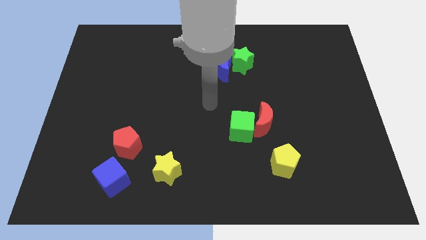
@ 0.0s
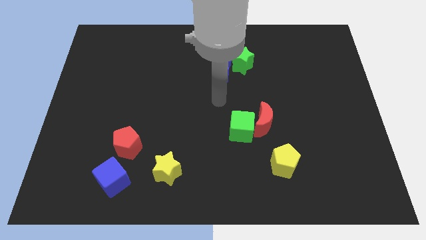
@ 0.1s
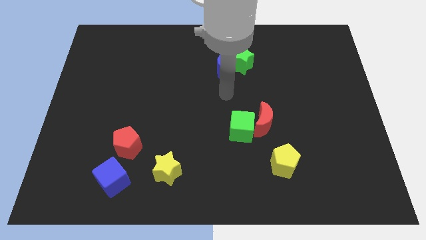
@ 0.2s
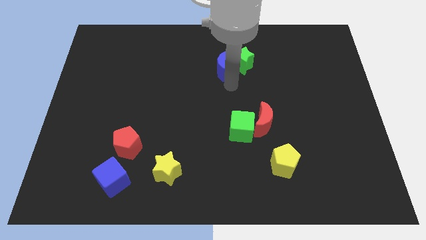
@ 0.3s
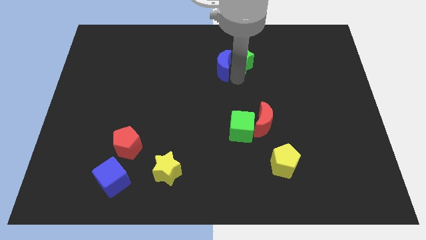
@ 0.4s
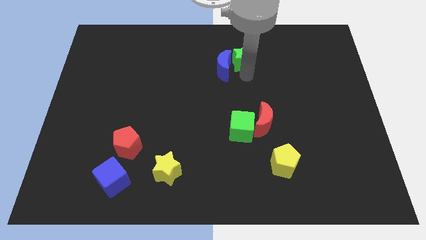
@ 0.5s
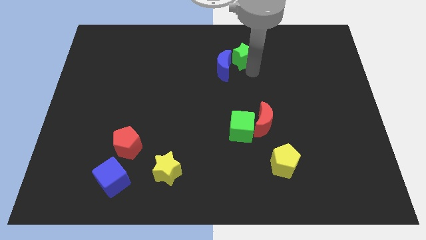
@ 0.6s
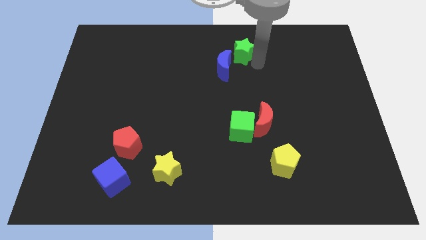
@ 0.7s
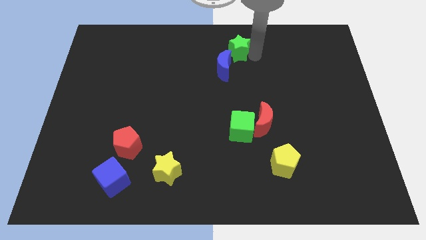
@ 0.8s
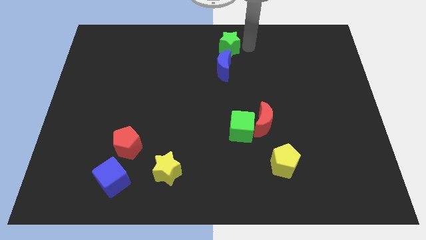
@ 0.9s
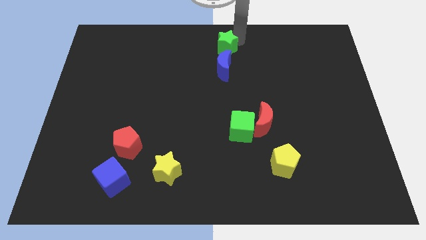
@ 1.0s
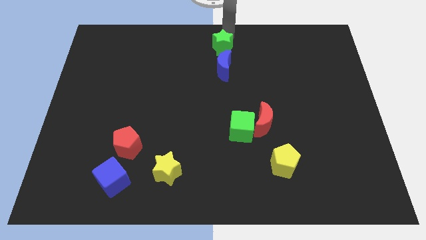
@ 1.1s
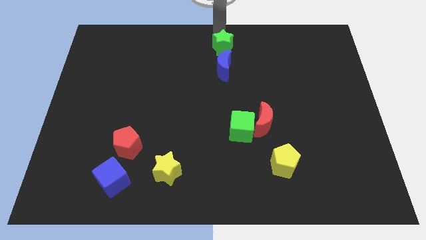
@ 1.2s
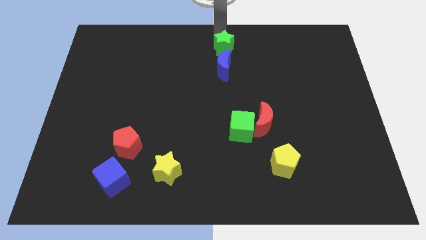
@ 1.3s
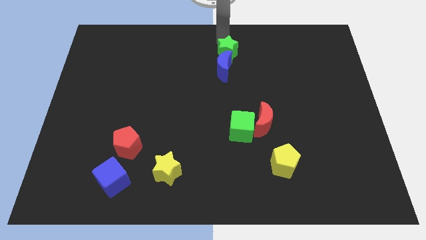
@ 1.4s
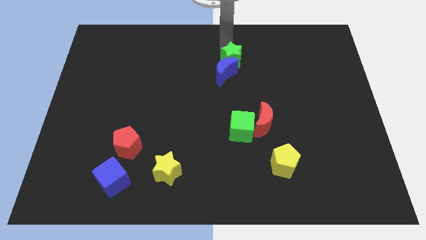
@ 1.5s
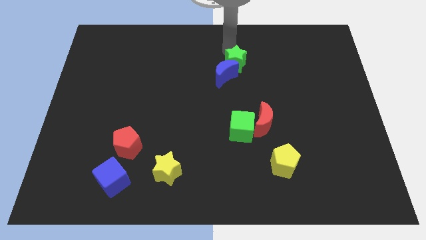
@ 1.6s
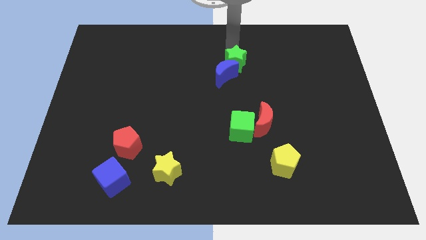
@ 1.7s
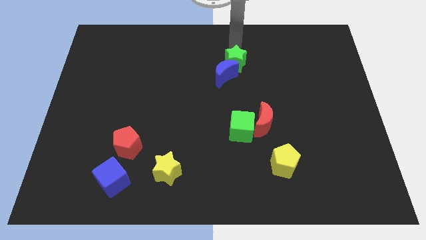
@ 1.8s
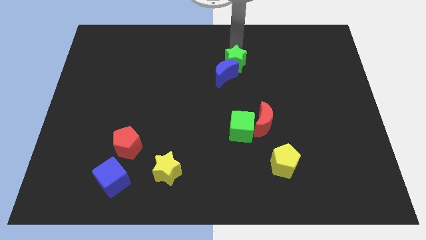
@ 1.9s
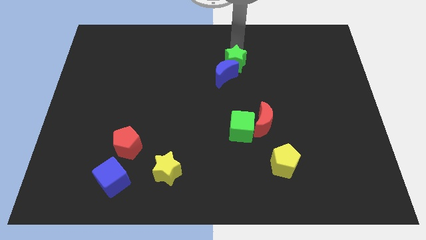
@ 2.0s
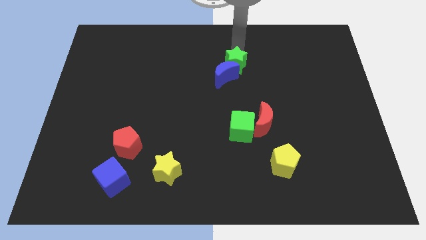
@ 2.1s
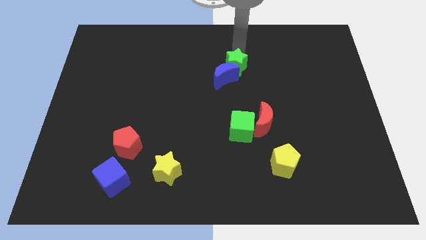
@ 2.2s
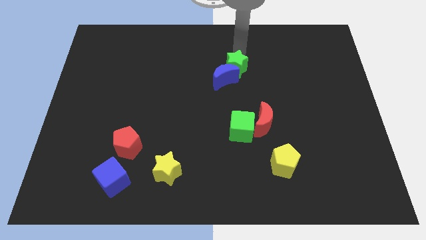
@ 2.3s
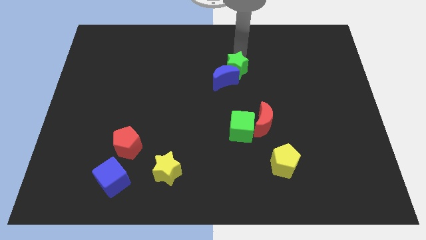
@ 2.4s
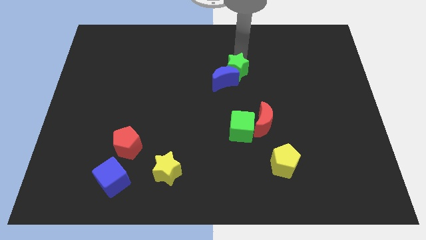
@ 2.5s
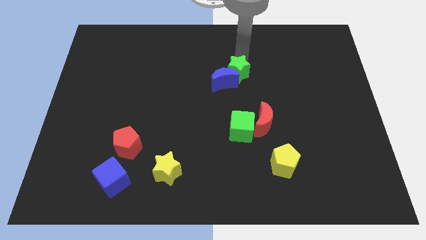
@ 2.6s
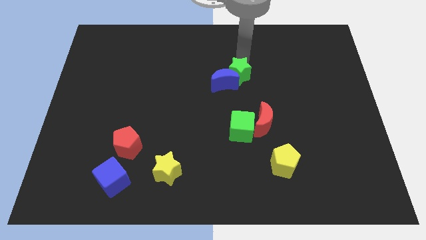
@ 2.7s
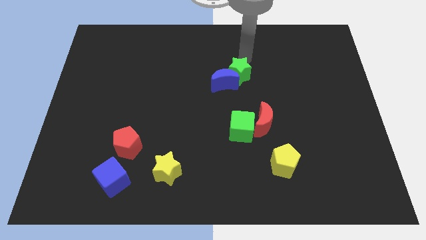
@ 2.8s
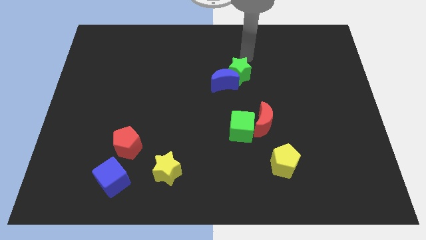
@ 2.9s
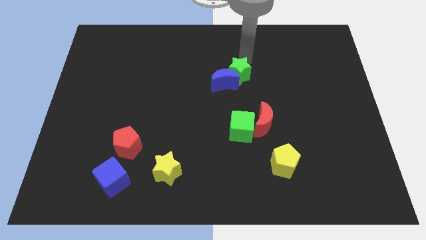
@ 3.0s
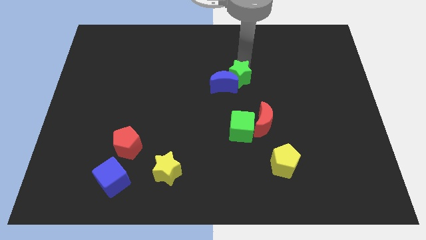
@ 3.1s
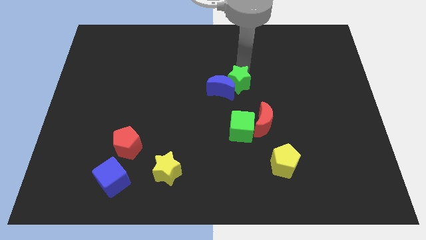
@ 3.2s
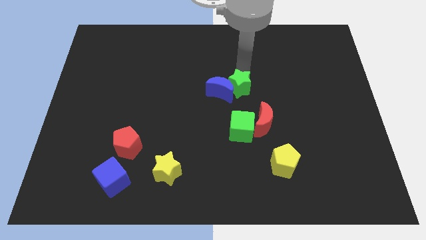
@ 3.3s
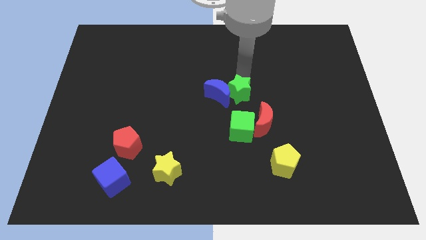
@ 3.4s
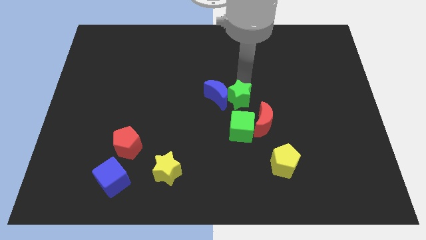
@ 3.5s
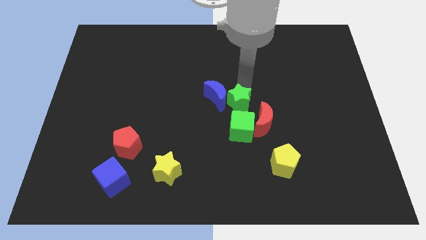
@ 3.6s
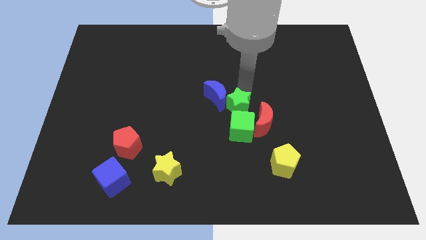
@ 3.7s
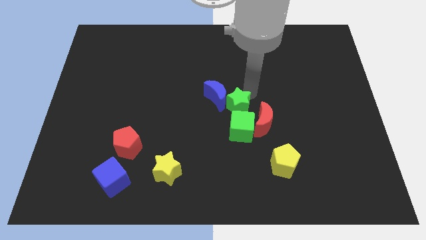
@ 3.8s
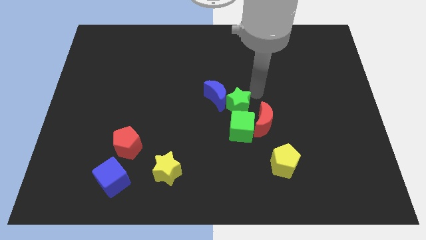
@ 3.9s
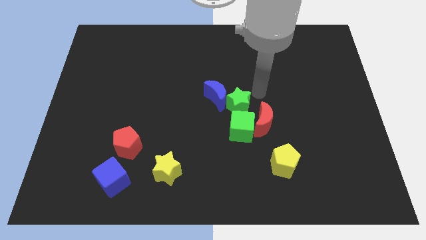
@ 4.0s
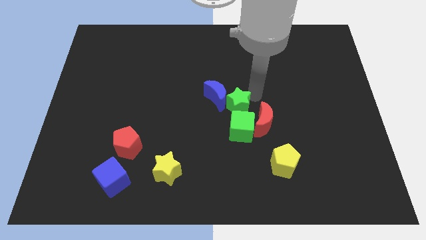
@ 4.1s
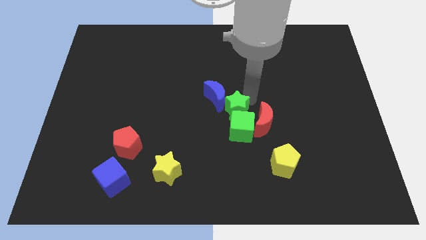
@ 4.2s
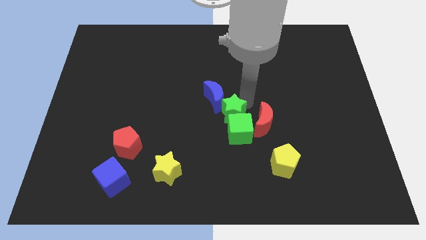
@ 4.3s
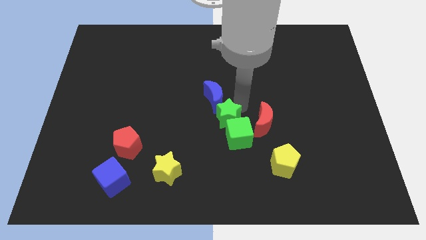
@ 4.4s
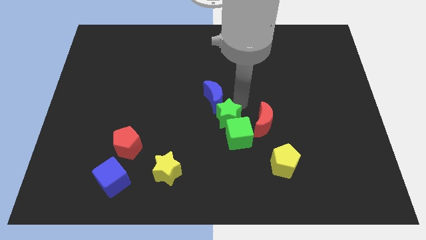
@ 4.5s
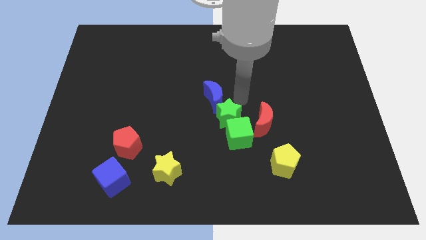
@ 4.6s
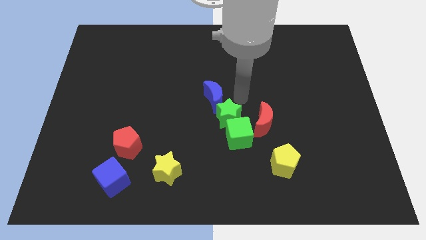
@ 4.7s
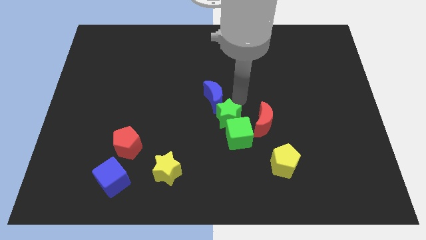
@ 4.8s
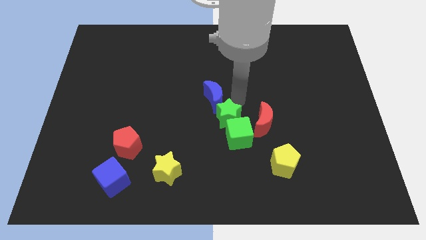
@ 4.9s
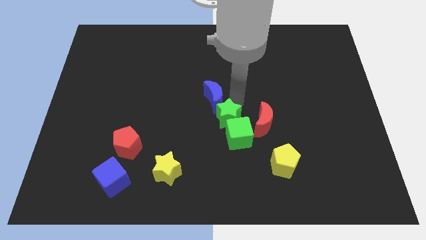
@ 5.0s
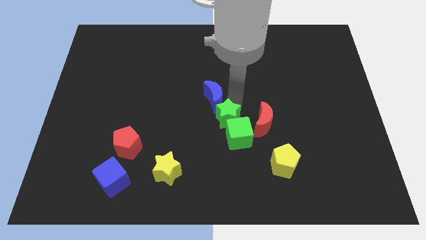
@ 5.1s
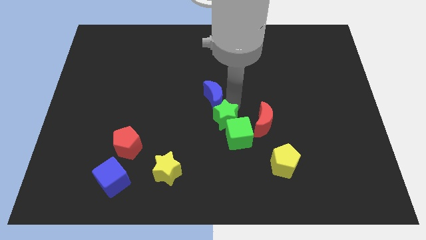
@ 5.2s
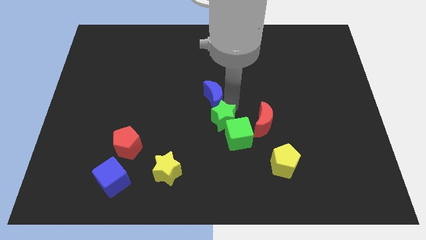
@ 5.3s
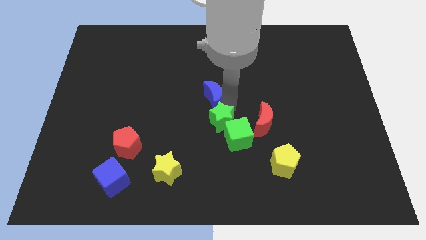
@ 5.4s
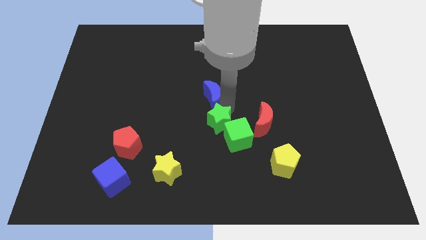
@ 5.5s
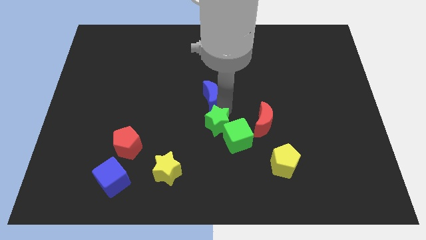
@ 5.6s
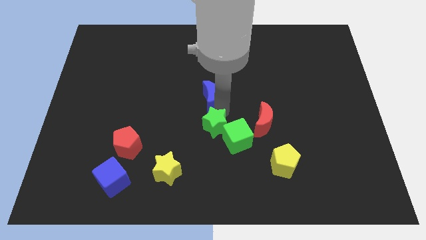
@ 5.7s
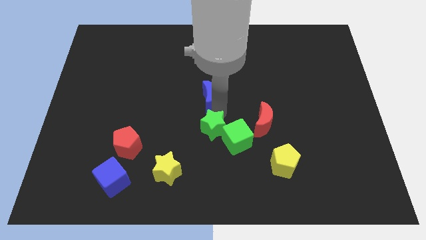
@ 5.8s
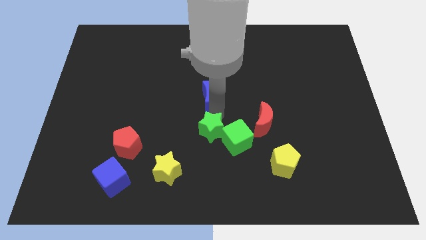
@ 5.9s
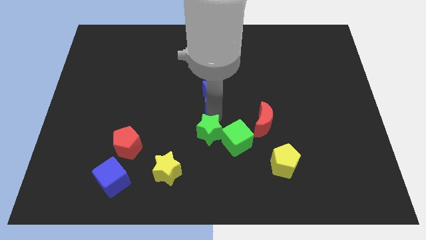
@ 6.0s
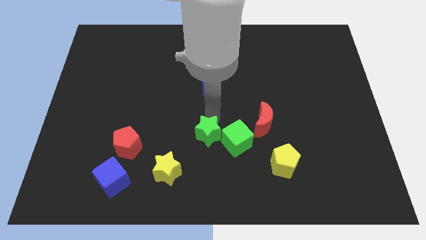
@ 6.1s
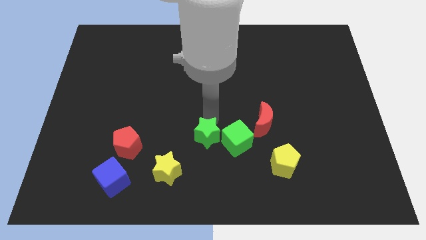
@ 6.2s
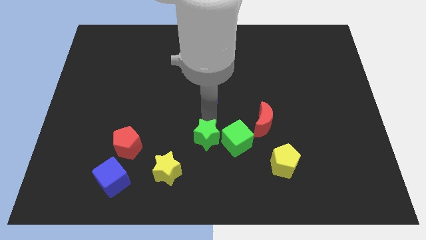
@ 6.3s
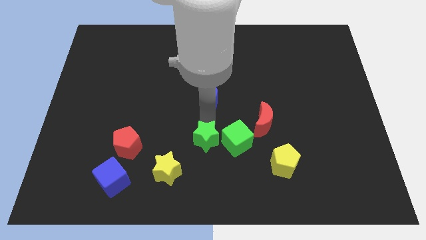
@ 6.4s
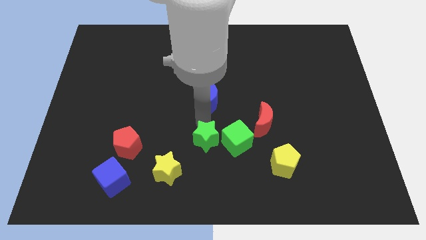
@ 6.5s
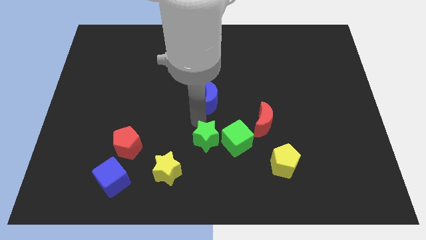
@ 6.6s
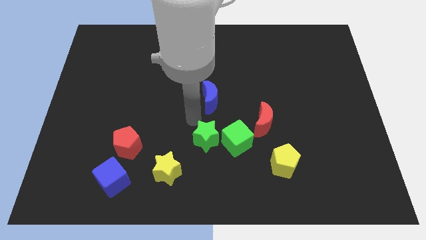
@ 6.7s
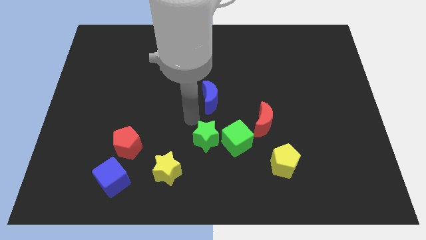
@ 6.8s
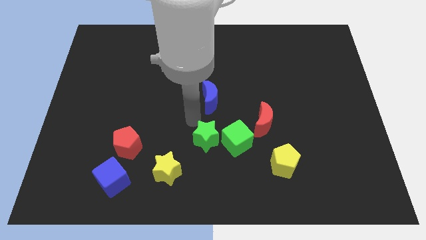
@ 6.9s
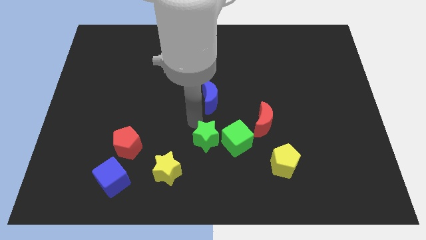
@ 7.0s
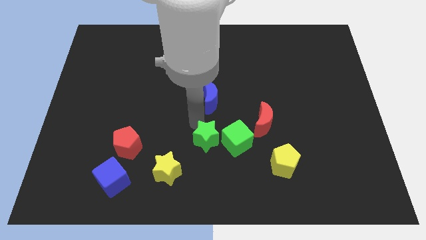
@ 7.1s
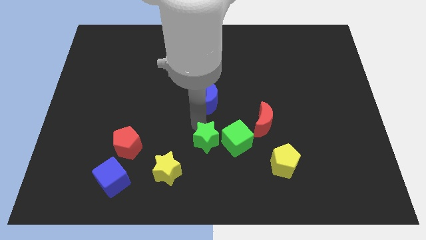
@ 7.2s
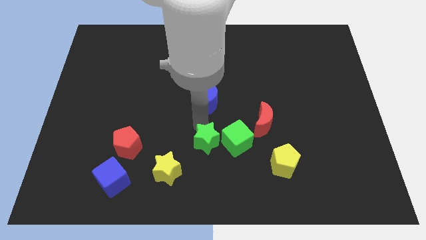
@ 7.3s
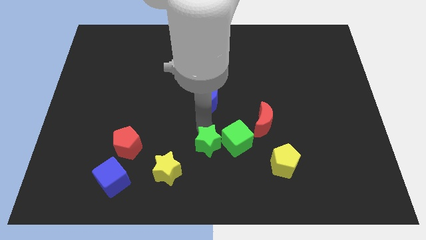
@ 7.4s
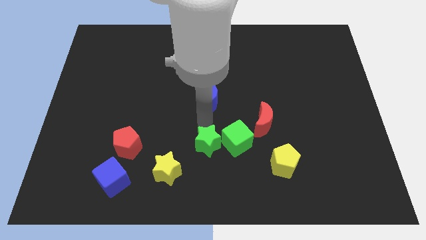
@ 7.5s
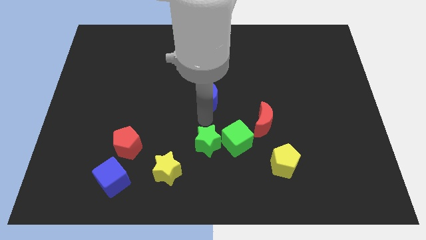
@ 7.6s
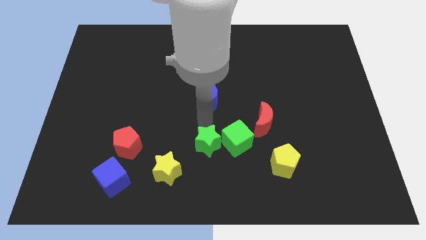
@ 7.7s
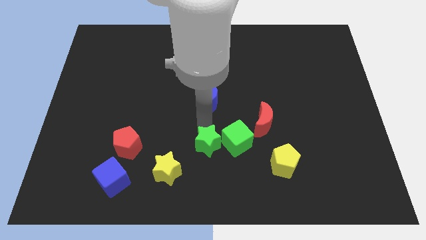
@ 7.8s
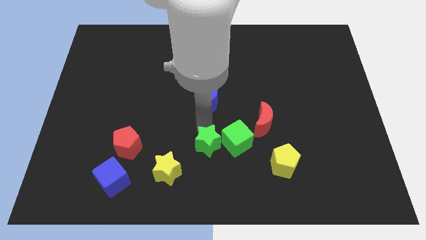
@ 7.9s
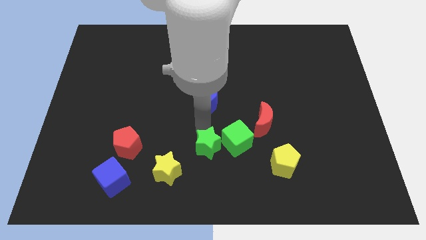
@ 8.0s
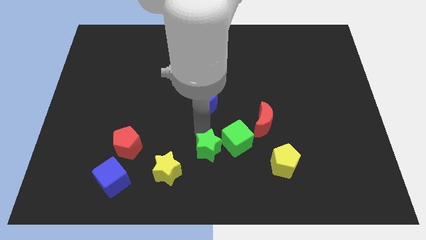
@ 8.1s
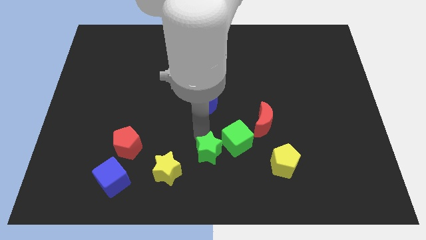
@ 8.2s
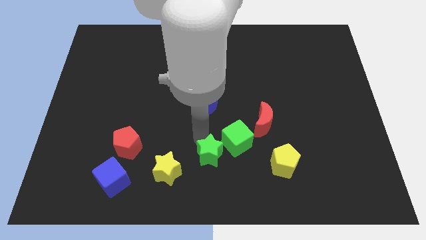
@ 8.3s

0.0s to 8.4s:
push the green star to the bottom
